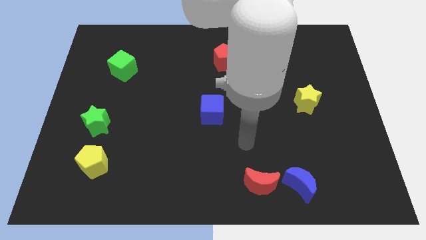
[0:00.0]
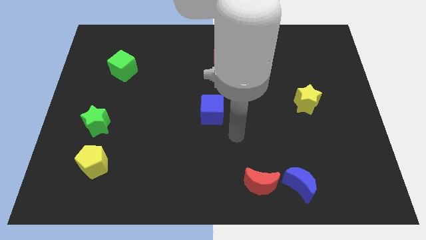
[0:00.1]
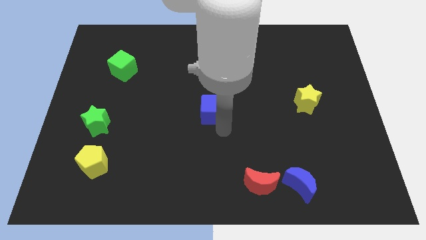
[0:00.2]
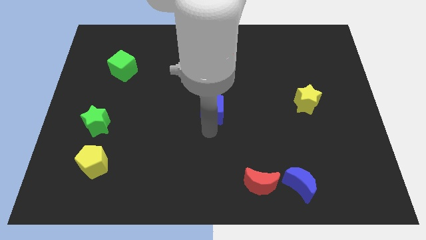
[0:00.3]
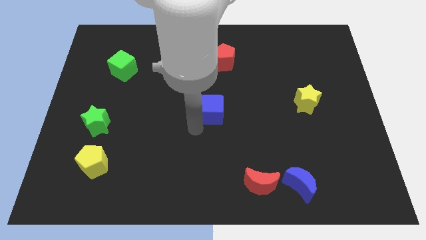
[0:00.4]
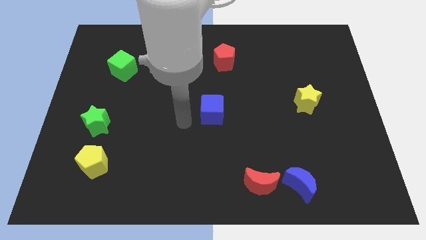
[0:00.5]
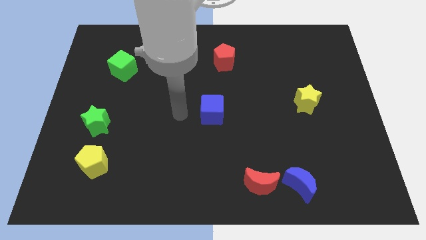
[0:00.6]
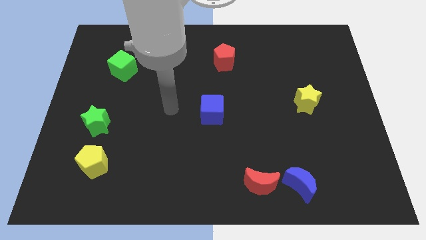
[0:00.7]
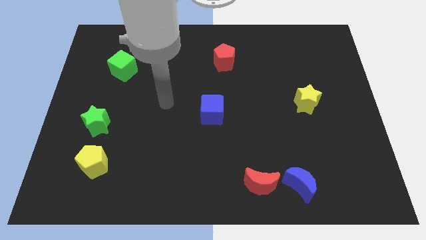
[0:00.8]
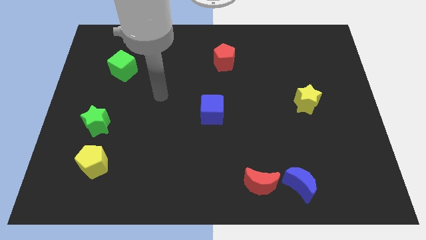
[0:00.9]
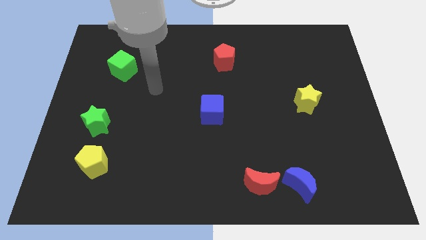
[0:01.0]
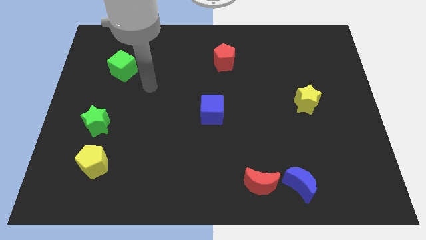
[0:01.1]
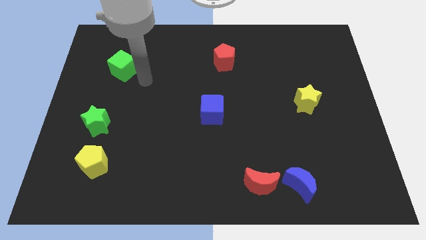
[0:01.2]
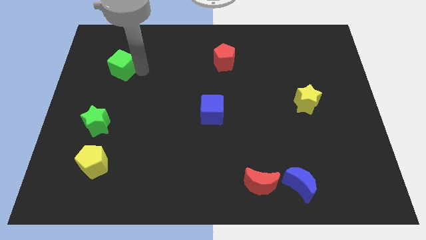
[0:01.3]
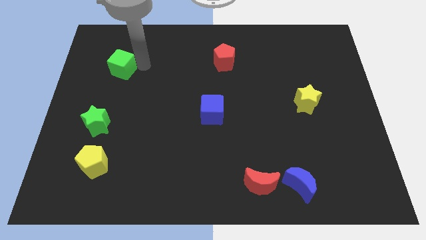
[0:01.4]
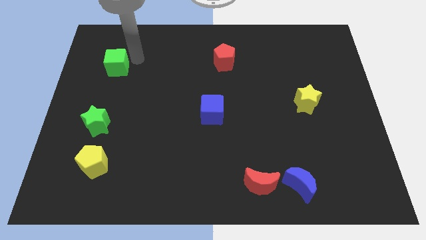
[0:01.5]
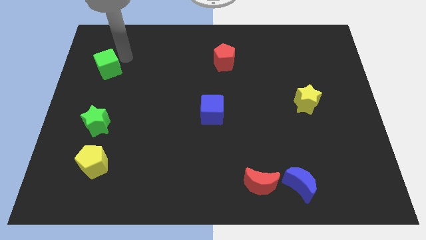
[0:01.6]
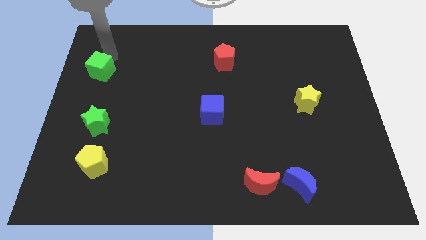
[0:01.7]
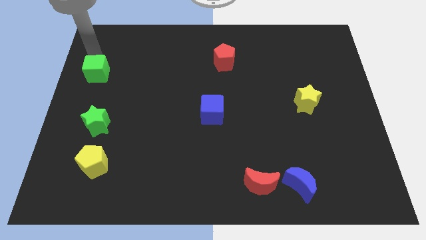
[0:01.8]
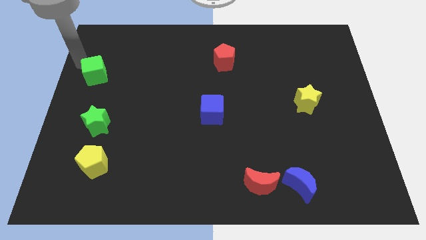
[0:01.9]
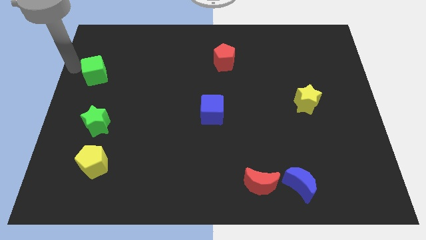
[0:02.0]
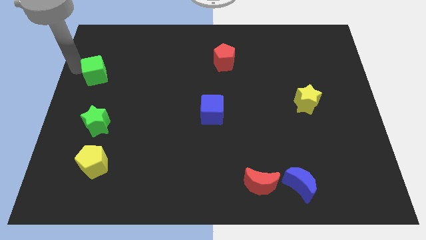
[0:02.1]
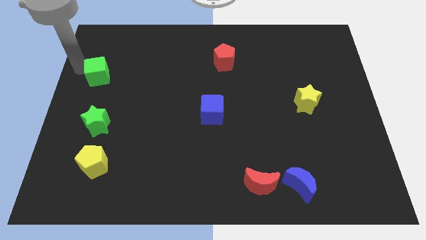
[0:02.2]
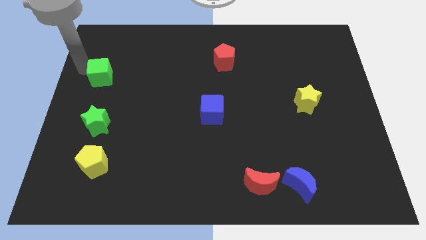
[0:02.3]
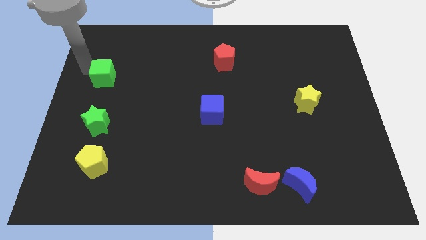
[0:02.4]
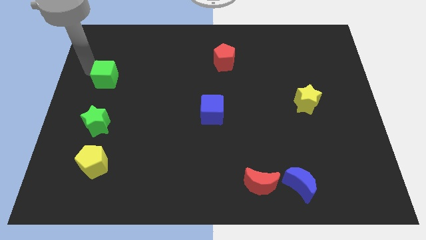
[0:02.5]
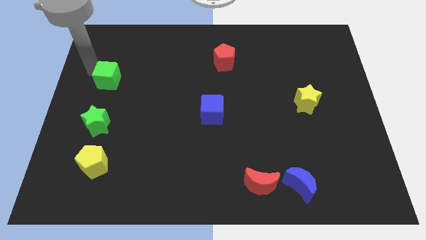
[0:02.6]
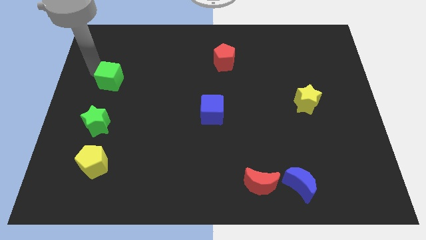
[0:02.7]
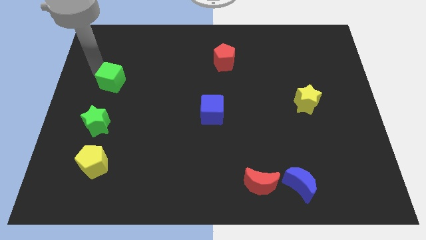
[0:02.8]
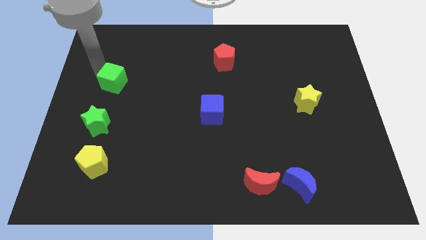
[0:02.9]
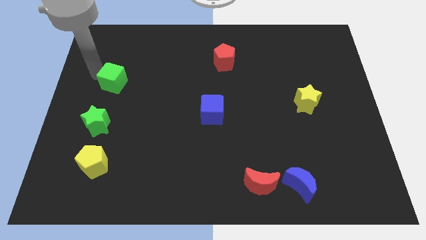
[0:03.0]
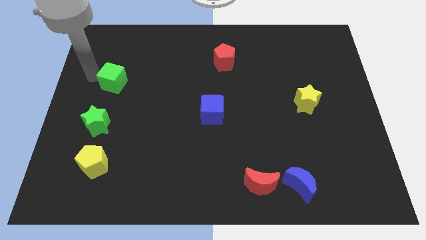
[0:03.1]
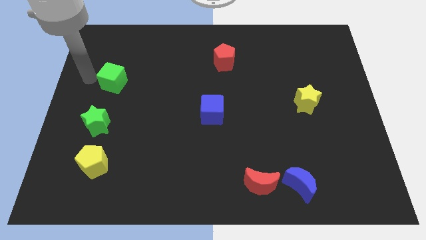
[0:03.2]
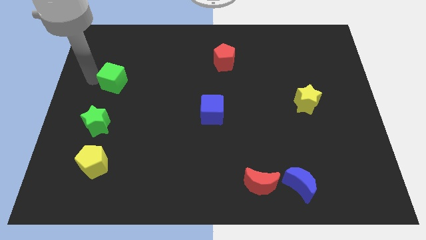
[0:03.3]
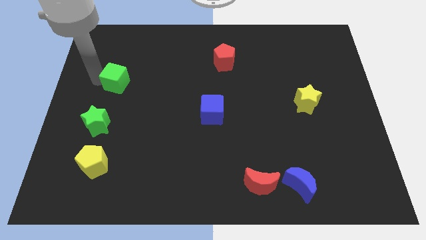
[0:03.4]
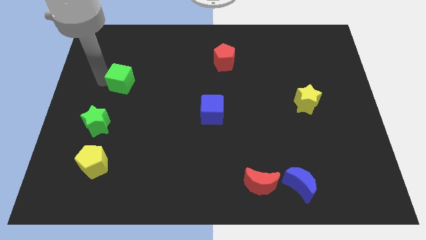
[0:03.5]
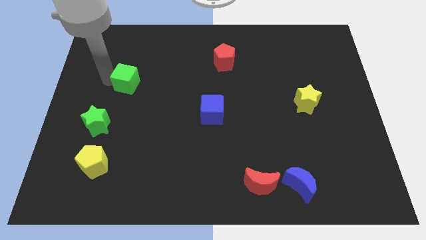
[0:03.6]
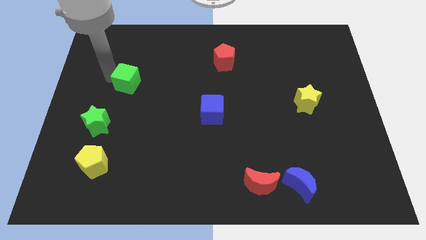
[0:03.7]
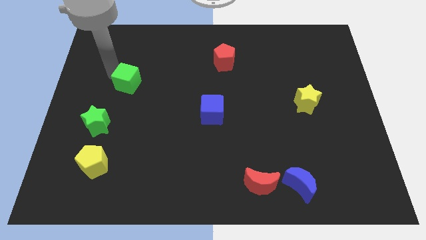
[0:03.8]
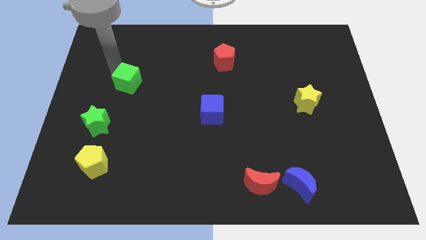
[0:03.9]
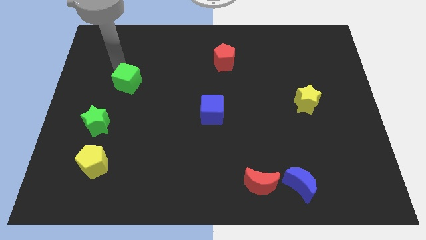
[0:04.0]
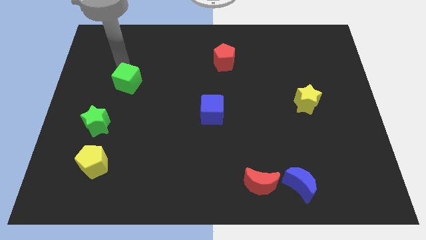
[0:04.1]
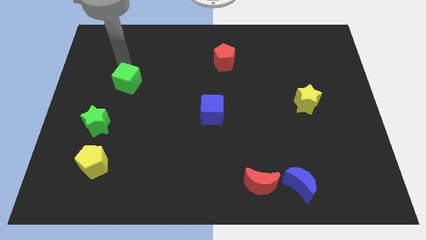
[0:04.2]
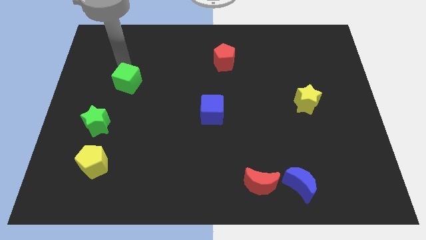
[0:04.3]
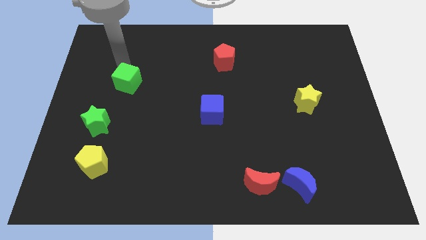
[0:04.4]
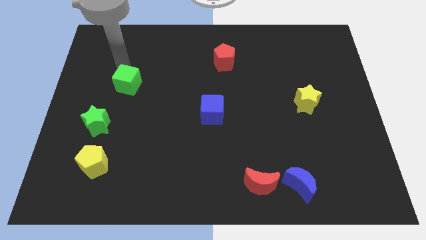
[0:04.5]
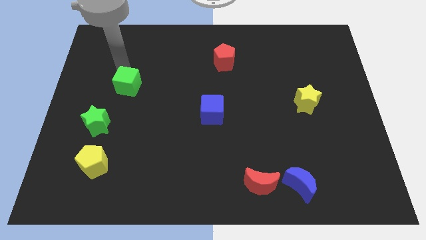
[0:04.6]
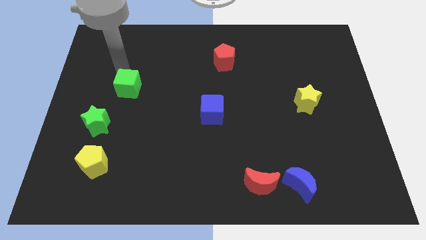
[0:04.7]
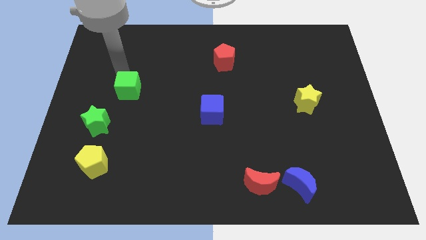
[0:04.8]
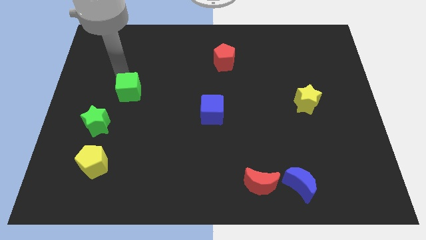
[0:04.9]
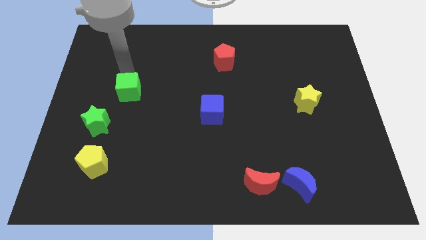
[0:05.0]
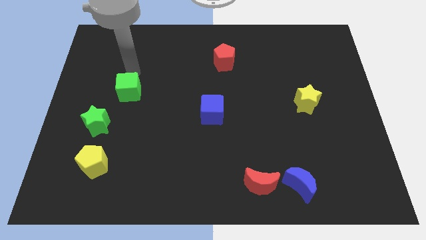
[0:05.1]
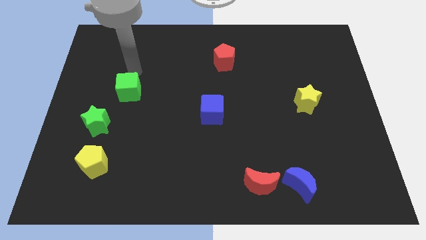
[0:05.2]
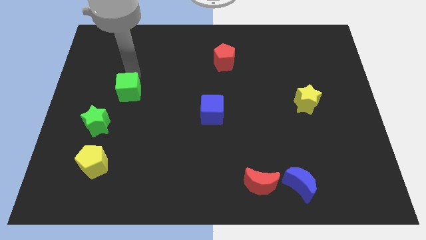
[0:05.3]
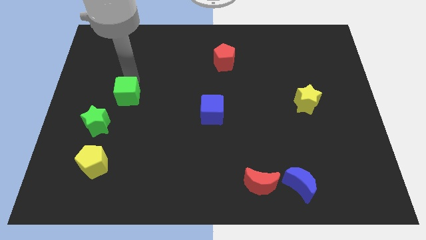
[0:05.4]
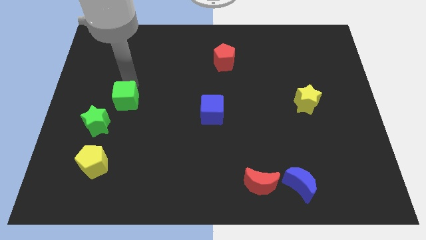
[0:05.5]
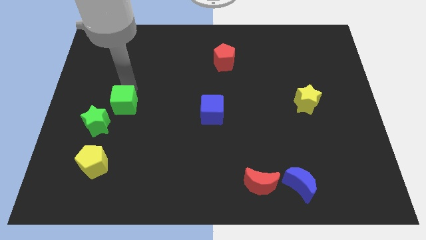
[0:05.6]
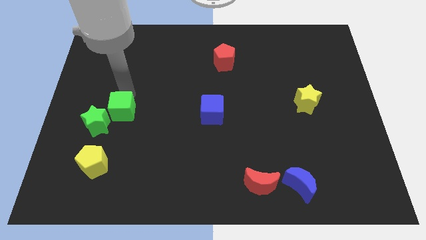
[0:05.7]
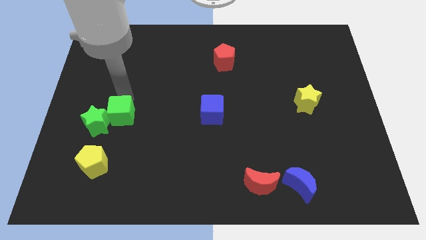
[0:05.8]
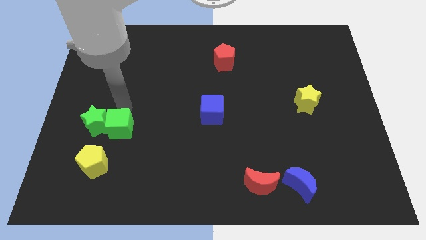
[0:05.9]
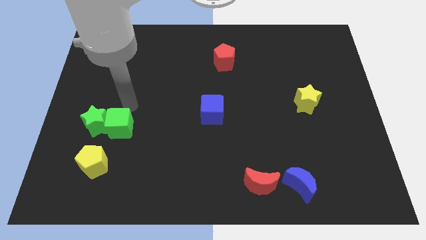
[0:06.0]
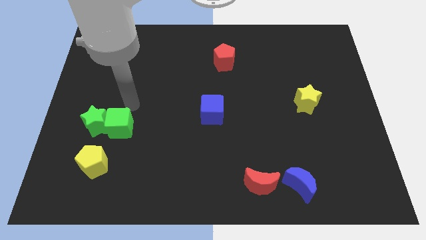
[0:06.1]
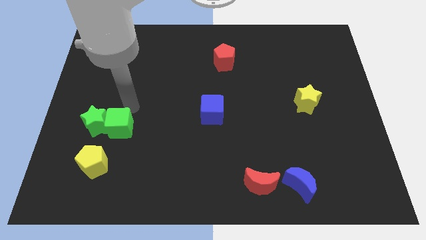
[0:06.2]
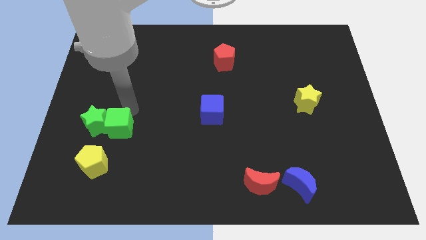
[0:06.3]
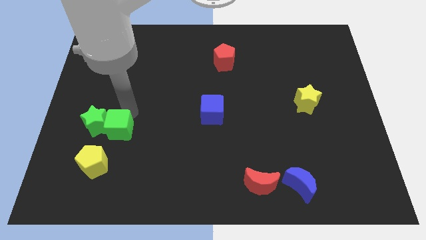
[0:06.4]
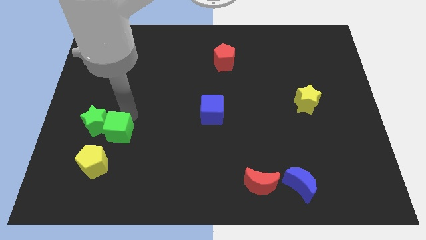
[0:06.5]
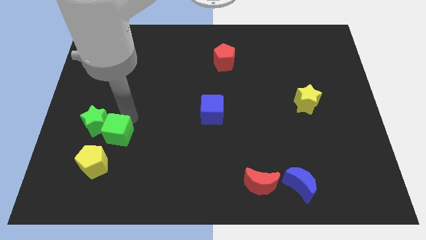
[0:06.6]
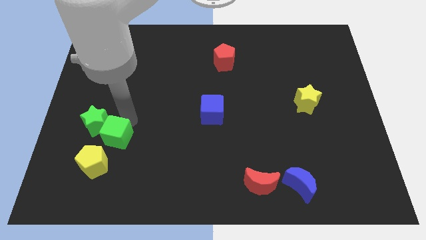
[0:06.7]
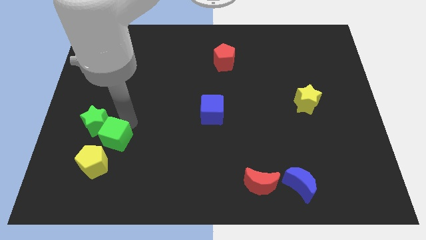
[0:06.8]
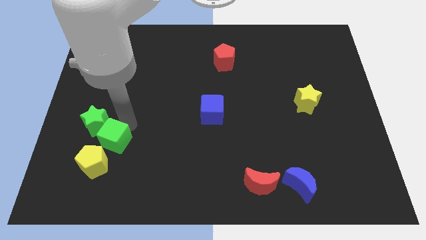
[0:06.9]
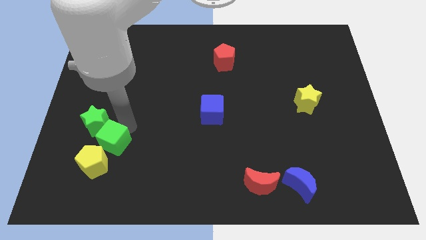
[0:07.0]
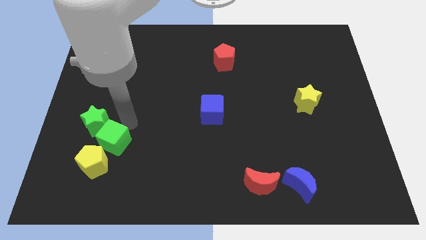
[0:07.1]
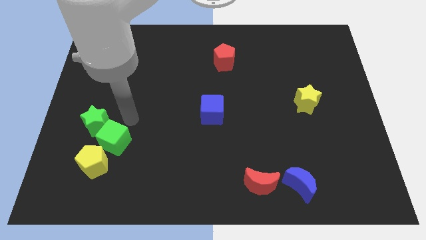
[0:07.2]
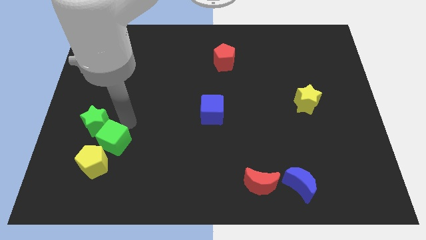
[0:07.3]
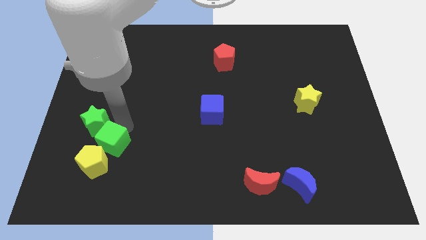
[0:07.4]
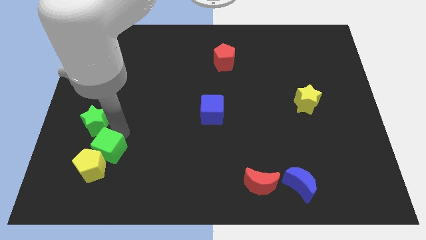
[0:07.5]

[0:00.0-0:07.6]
move the green cube close to the yellow pentagon

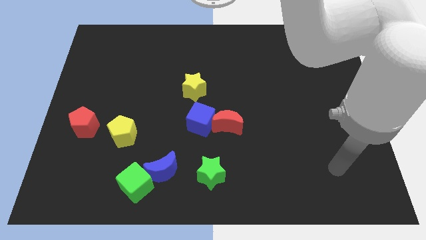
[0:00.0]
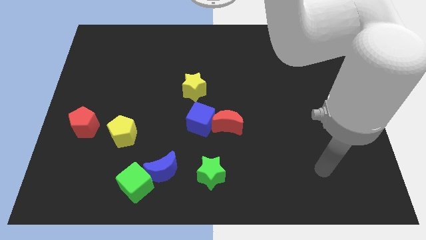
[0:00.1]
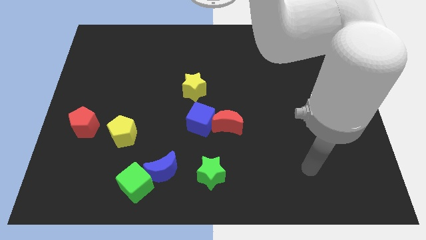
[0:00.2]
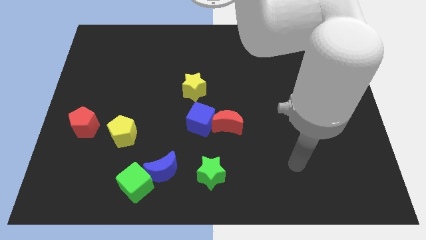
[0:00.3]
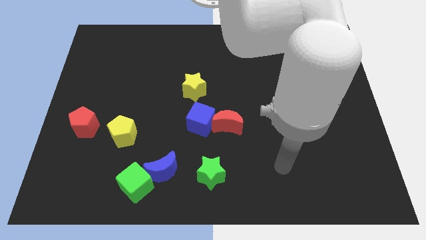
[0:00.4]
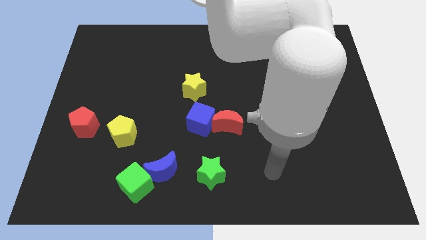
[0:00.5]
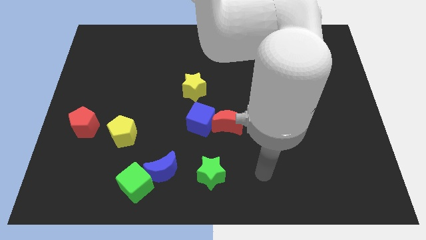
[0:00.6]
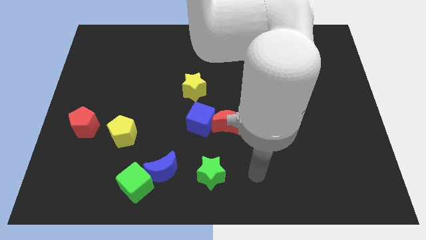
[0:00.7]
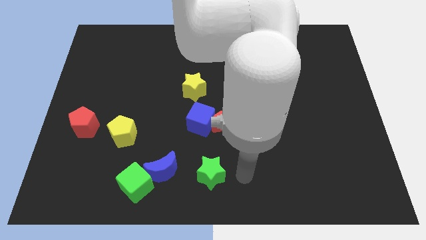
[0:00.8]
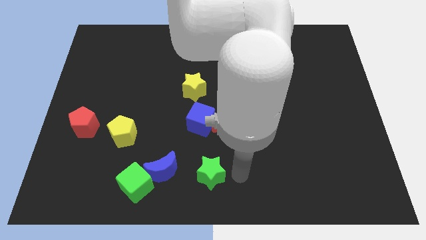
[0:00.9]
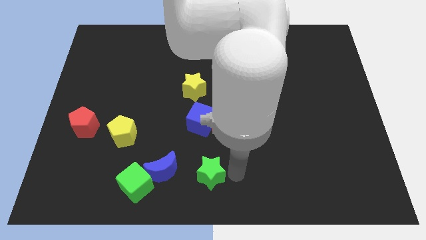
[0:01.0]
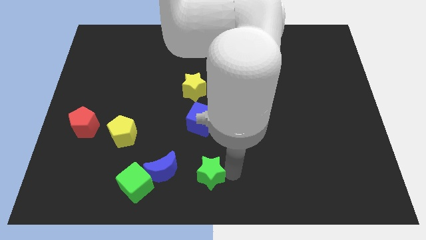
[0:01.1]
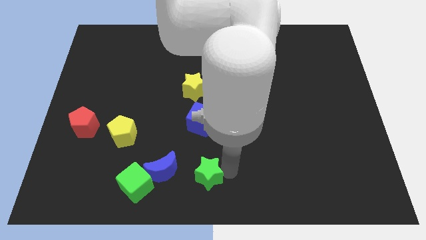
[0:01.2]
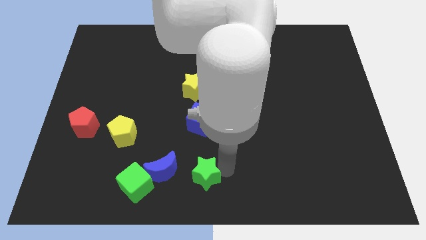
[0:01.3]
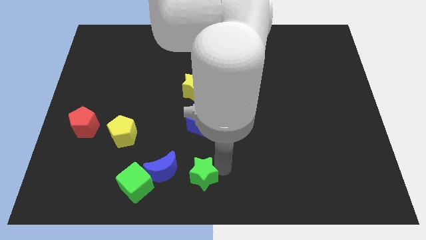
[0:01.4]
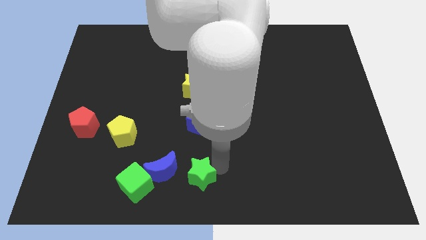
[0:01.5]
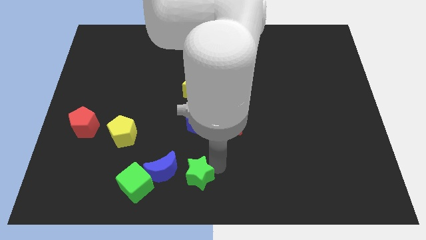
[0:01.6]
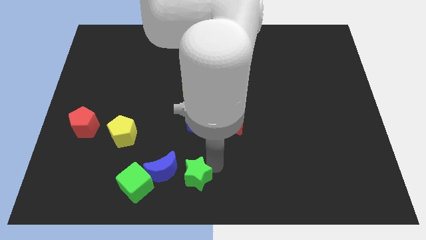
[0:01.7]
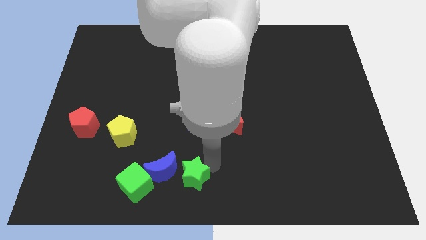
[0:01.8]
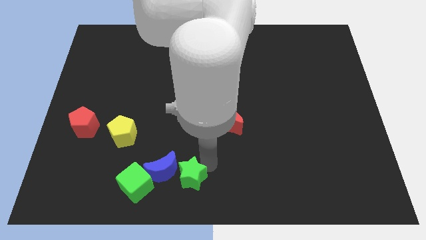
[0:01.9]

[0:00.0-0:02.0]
slide the green star next to the blue moon
